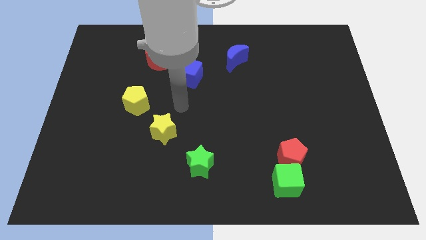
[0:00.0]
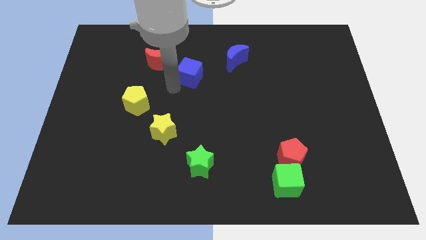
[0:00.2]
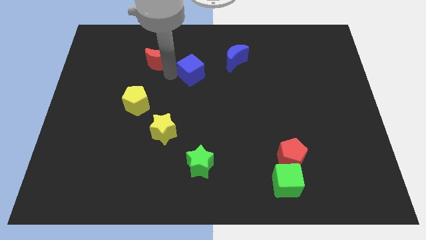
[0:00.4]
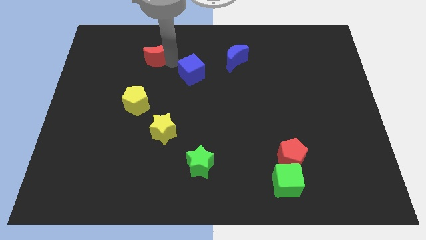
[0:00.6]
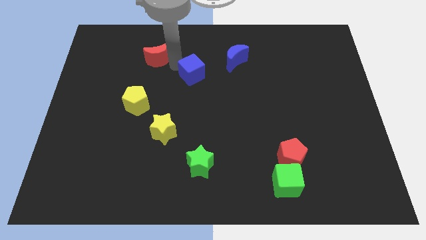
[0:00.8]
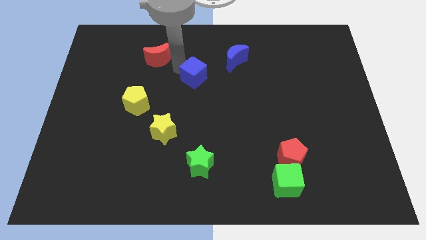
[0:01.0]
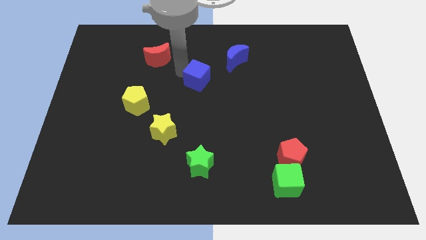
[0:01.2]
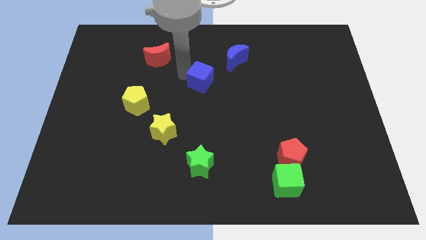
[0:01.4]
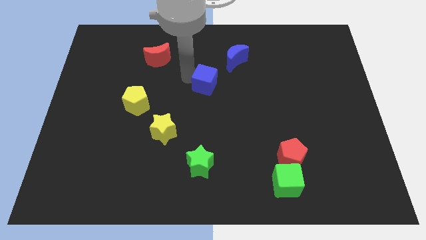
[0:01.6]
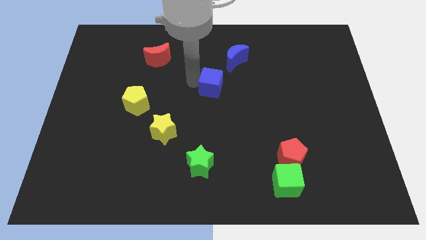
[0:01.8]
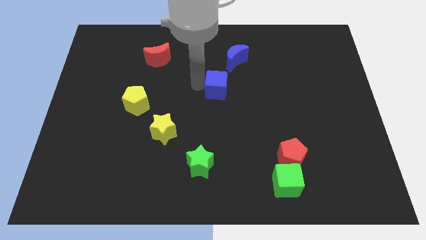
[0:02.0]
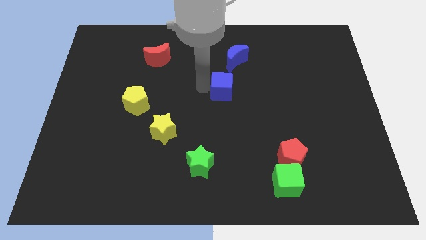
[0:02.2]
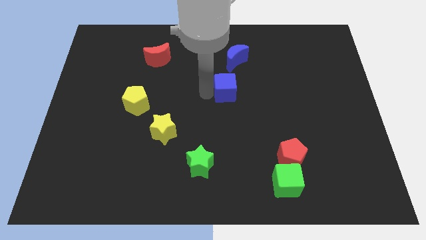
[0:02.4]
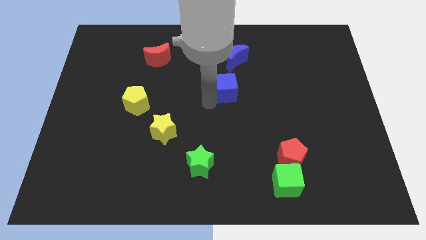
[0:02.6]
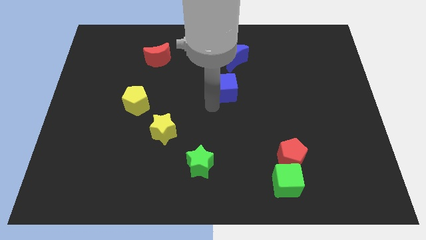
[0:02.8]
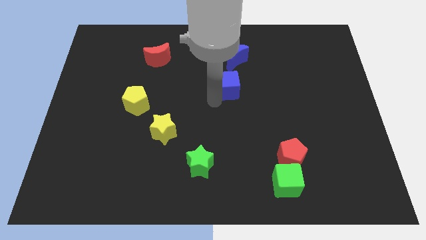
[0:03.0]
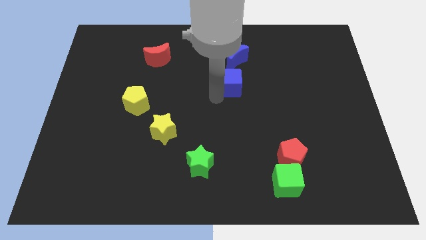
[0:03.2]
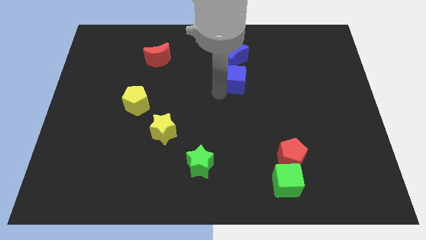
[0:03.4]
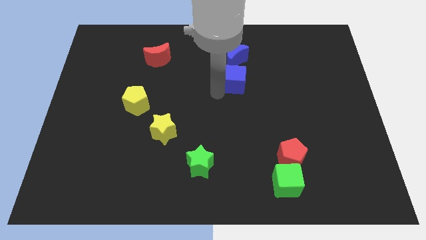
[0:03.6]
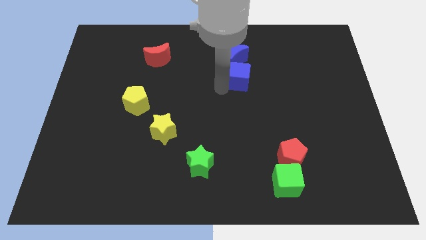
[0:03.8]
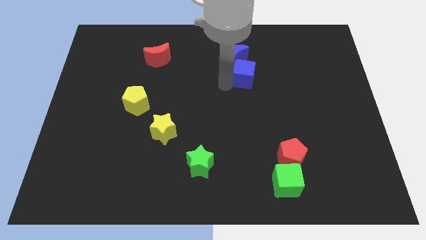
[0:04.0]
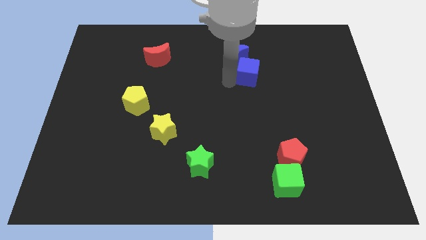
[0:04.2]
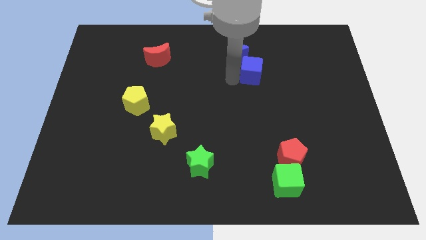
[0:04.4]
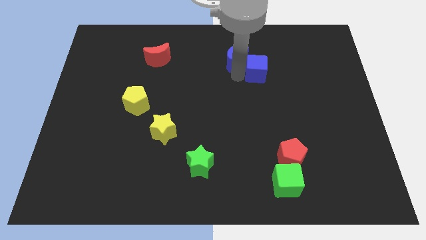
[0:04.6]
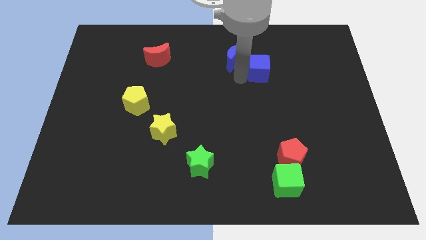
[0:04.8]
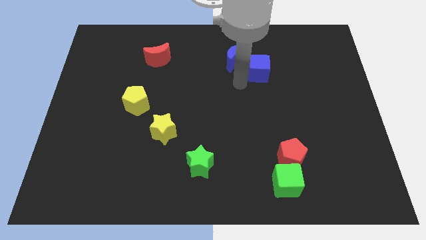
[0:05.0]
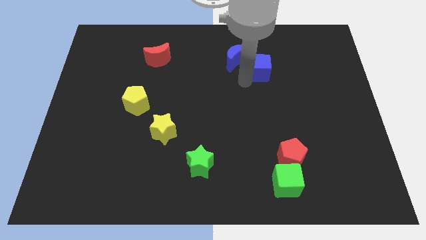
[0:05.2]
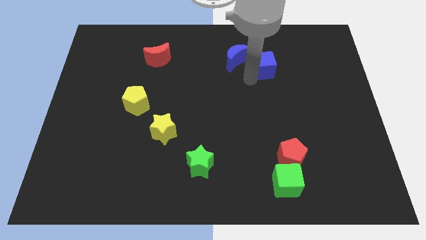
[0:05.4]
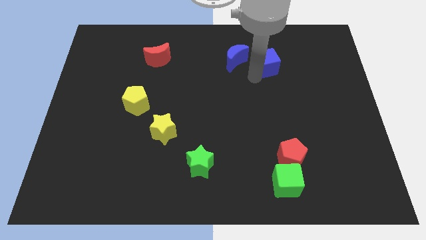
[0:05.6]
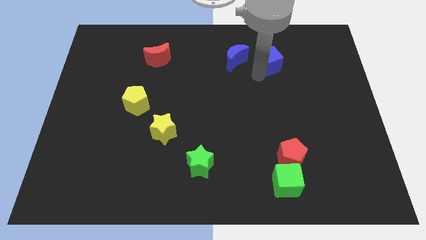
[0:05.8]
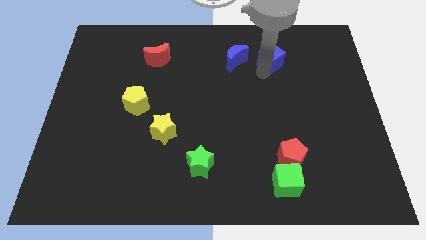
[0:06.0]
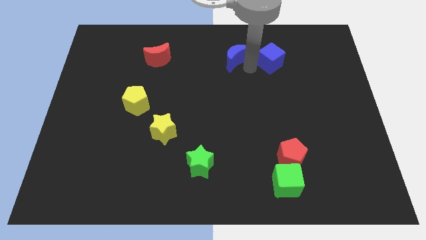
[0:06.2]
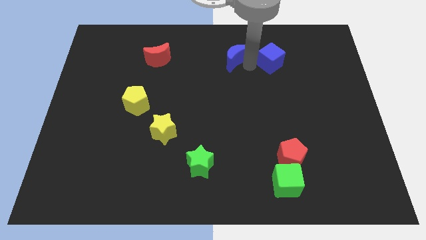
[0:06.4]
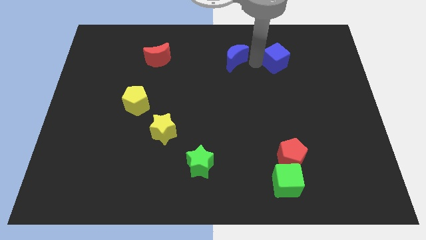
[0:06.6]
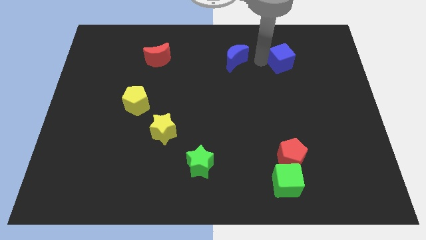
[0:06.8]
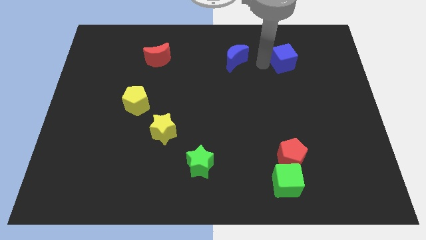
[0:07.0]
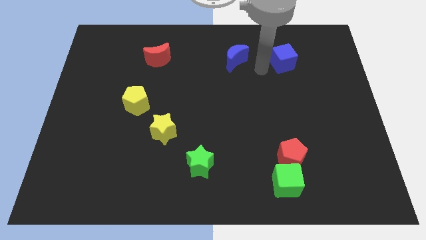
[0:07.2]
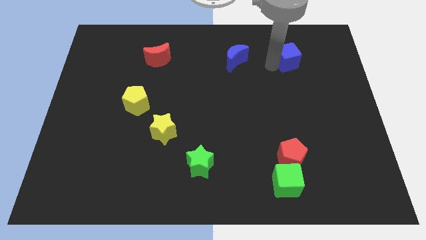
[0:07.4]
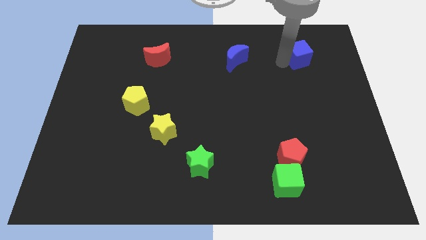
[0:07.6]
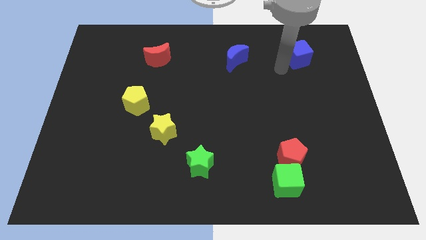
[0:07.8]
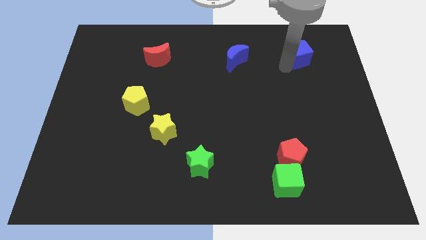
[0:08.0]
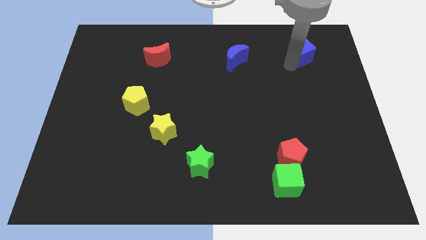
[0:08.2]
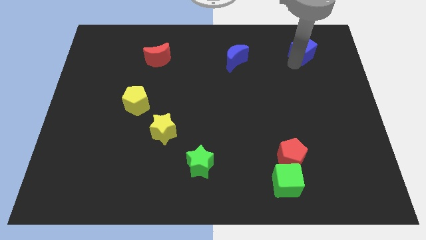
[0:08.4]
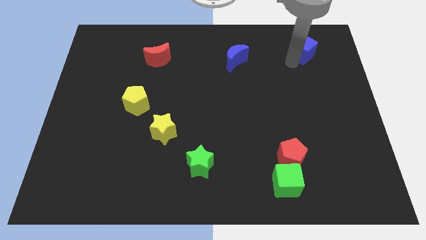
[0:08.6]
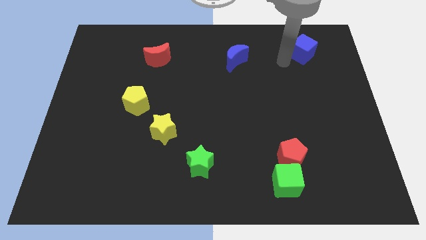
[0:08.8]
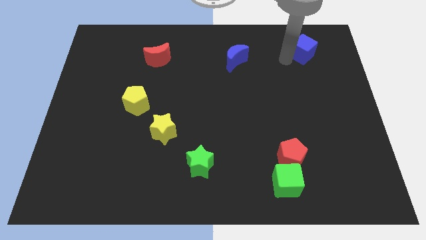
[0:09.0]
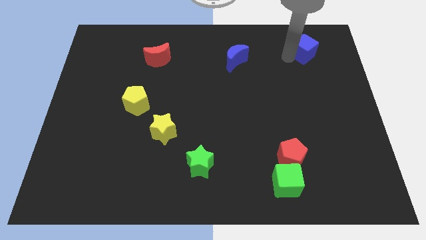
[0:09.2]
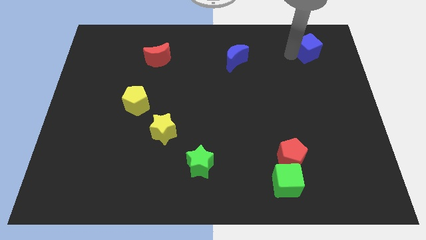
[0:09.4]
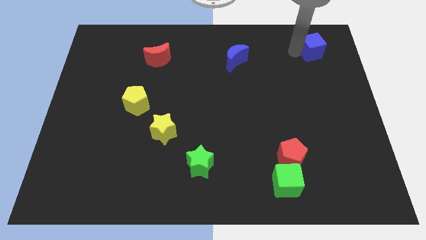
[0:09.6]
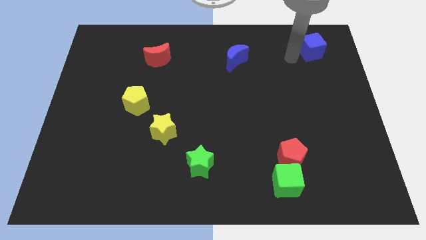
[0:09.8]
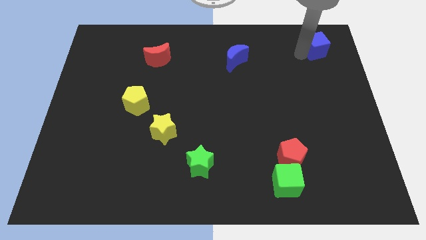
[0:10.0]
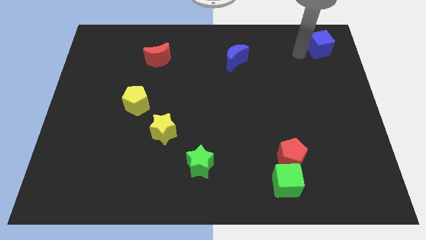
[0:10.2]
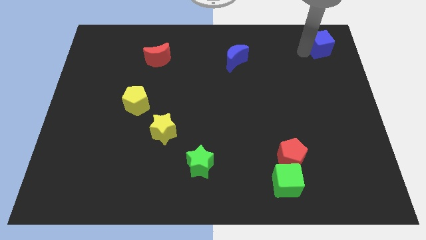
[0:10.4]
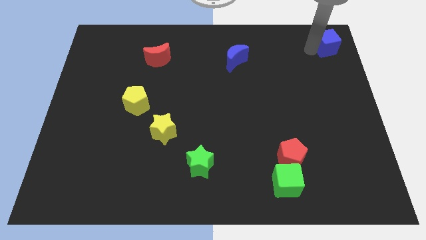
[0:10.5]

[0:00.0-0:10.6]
move the blue cube to the top right

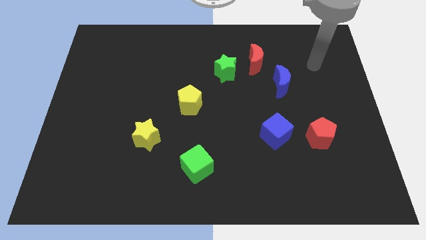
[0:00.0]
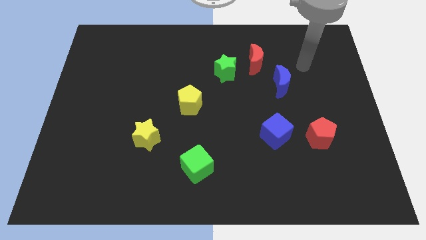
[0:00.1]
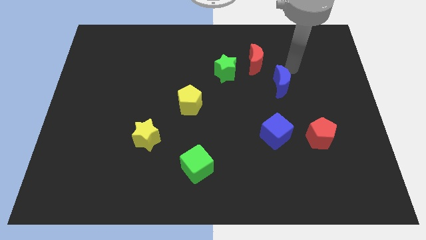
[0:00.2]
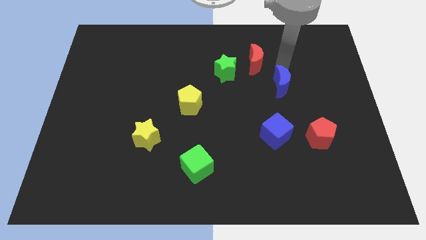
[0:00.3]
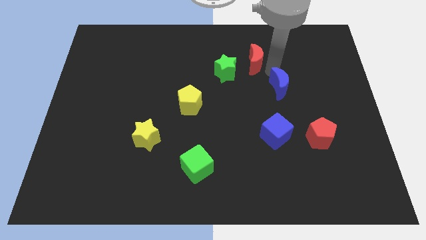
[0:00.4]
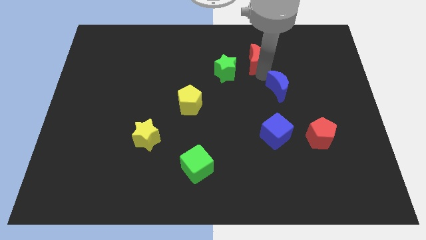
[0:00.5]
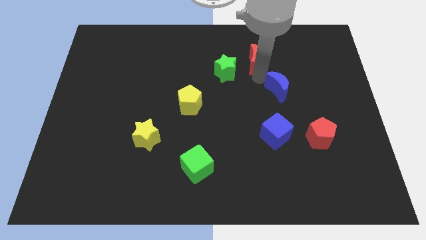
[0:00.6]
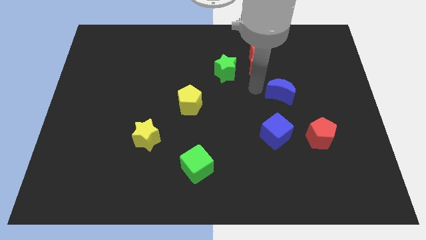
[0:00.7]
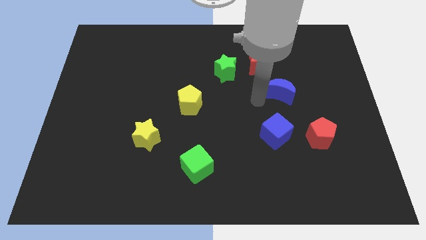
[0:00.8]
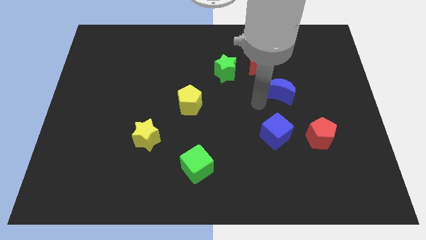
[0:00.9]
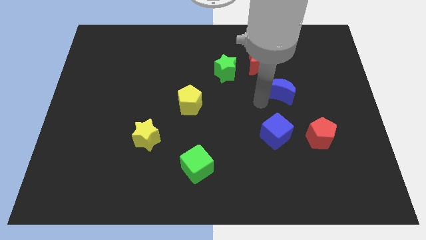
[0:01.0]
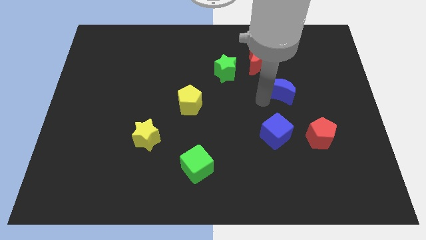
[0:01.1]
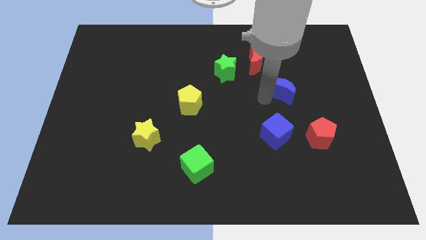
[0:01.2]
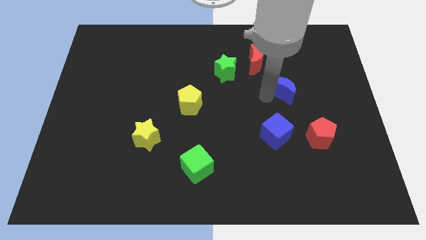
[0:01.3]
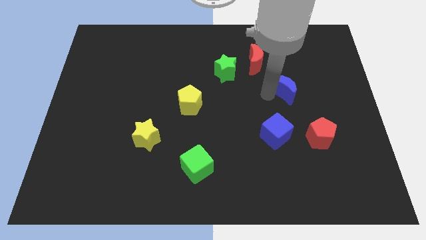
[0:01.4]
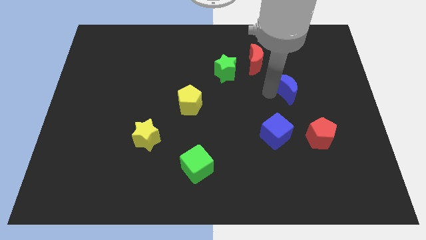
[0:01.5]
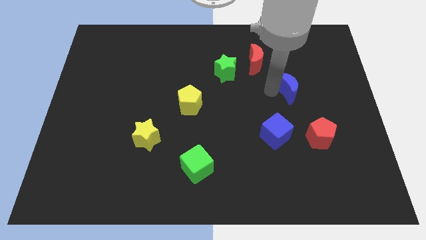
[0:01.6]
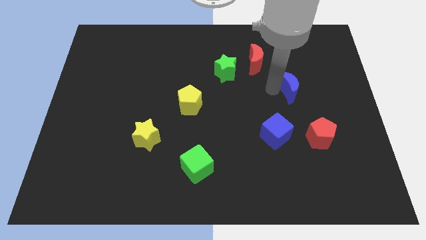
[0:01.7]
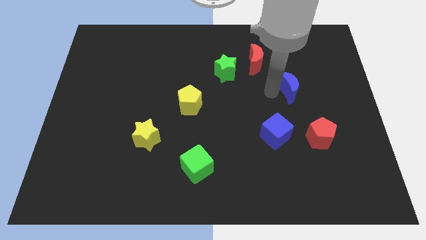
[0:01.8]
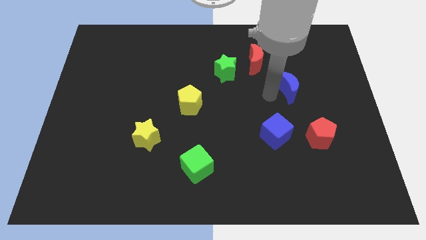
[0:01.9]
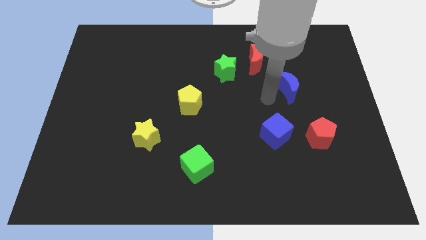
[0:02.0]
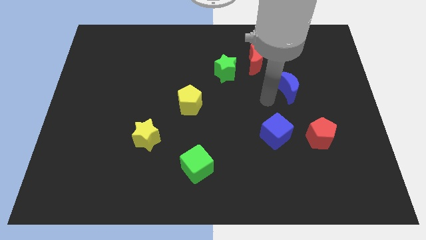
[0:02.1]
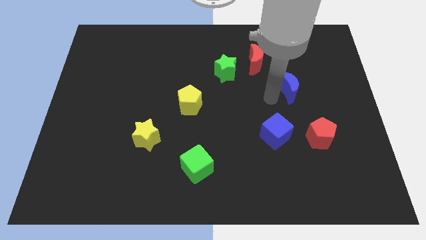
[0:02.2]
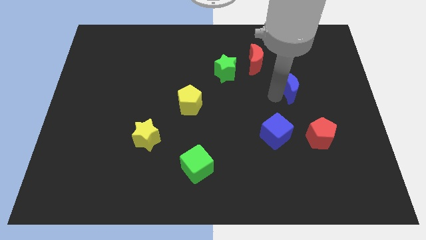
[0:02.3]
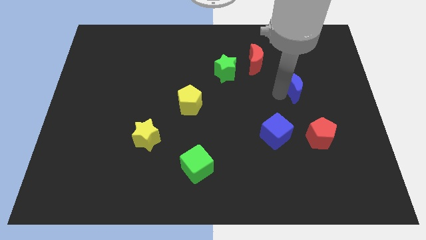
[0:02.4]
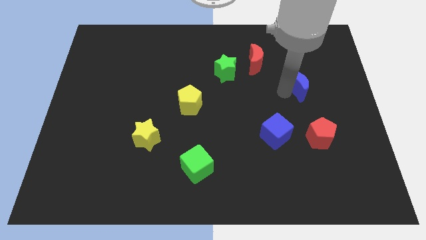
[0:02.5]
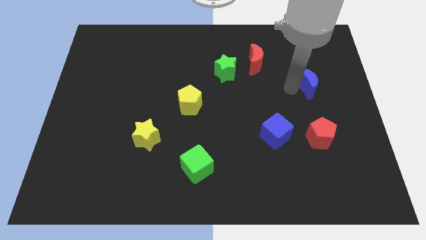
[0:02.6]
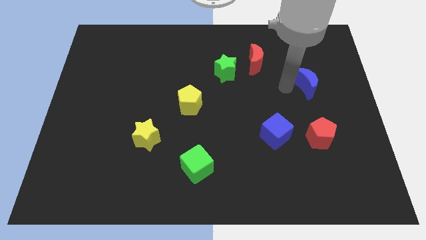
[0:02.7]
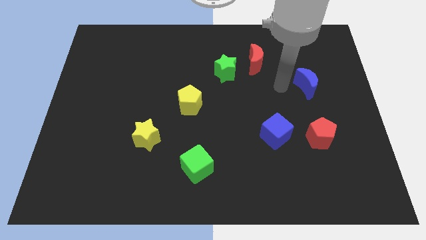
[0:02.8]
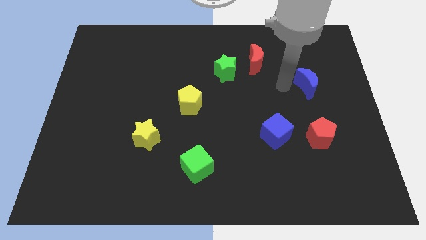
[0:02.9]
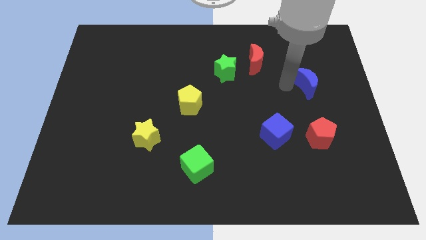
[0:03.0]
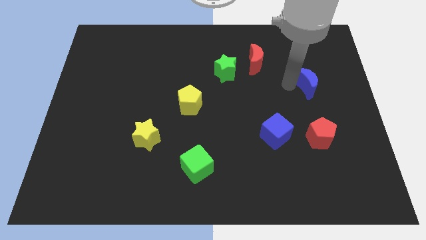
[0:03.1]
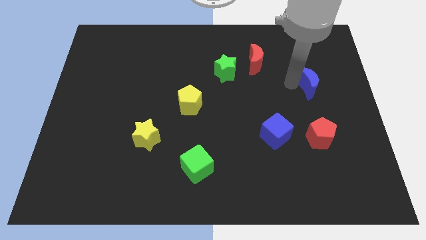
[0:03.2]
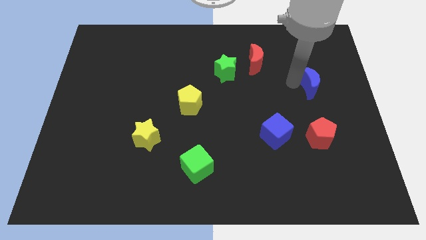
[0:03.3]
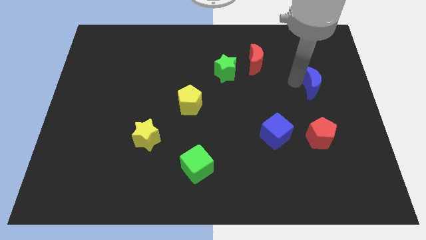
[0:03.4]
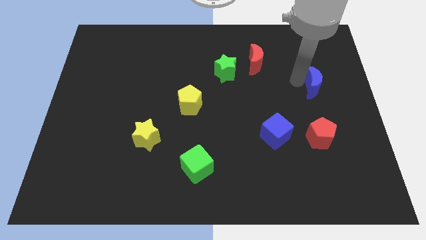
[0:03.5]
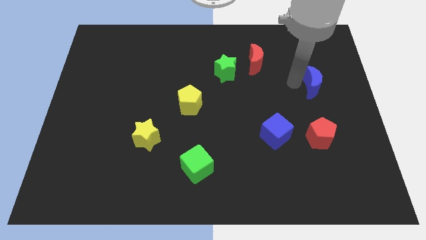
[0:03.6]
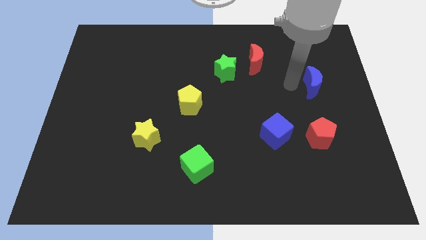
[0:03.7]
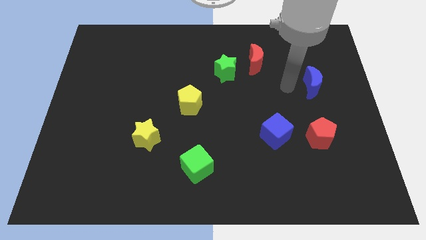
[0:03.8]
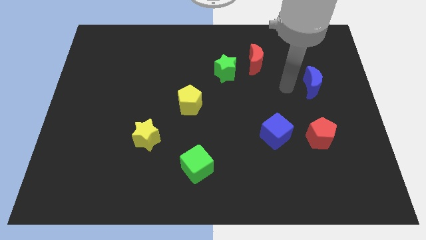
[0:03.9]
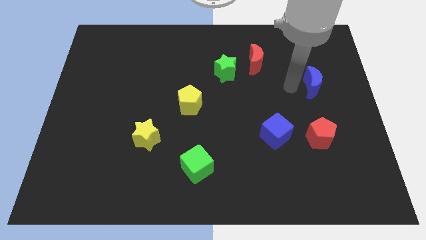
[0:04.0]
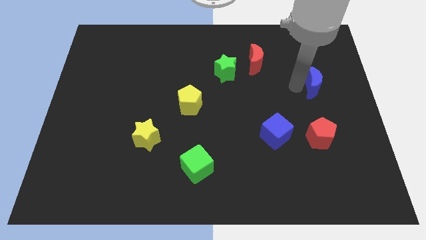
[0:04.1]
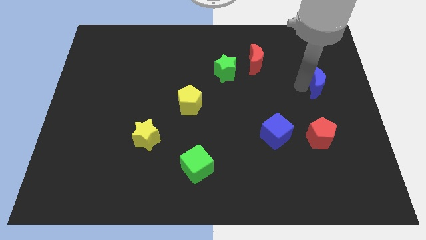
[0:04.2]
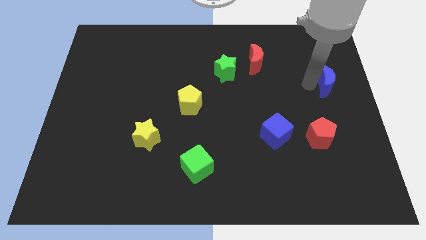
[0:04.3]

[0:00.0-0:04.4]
slide the blue moon to the right side of the board
